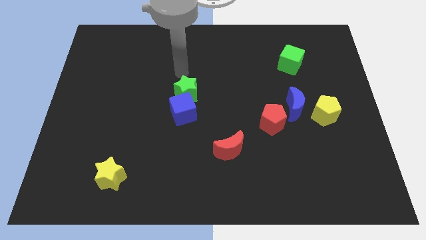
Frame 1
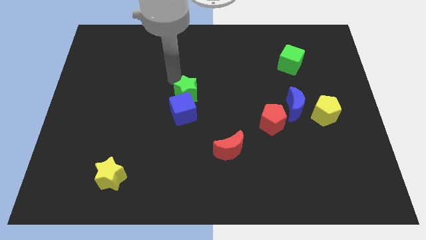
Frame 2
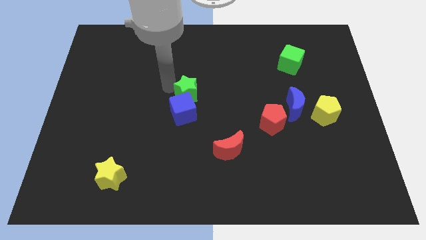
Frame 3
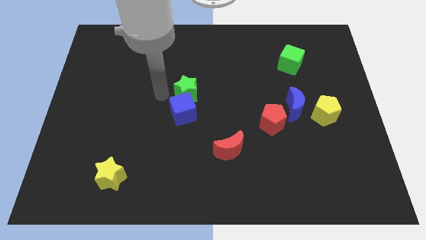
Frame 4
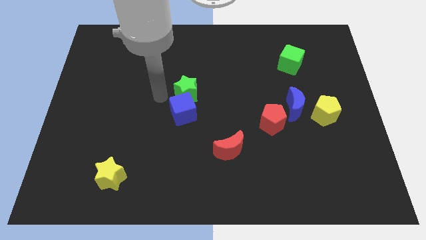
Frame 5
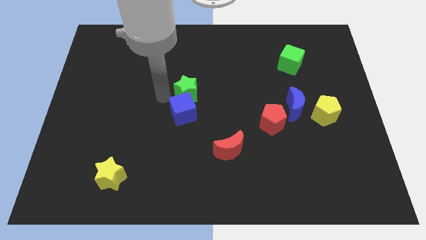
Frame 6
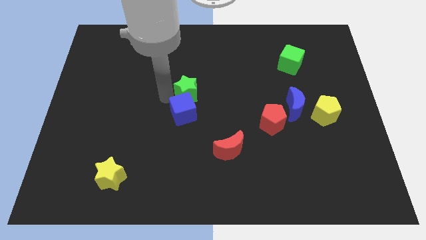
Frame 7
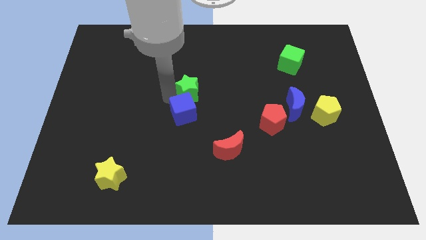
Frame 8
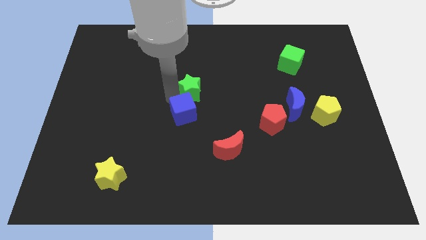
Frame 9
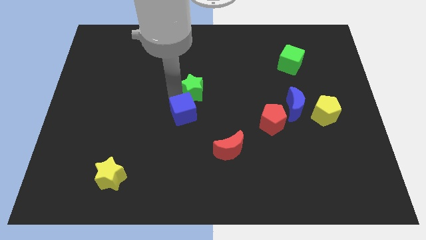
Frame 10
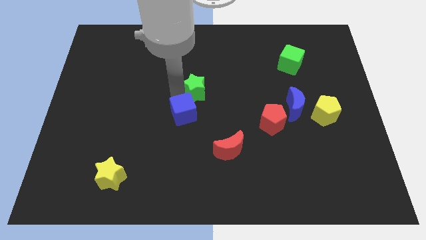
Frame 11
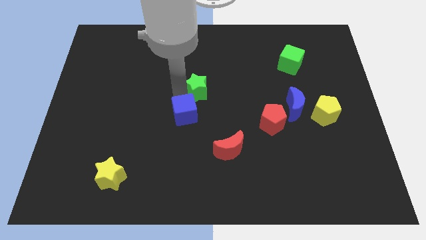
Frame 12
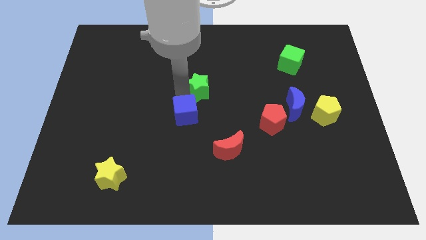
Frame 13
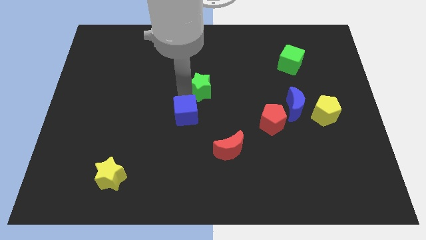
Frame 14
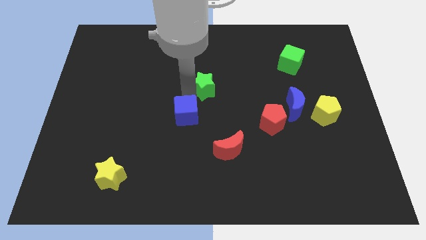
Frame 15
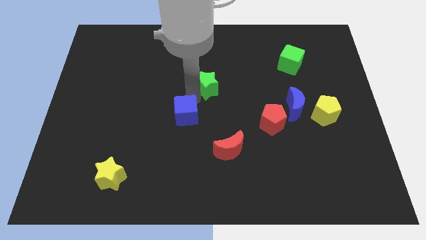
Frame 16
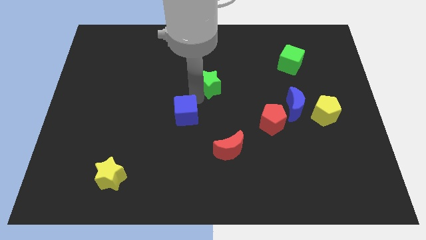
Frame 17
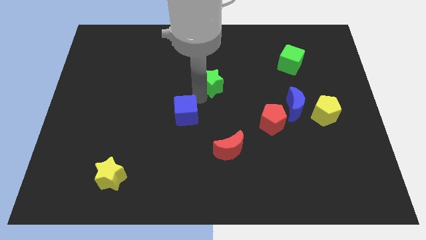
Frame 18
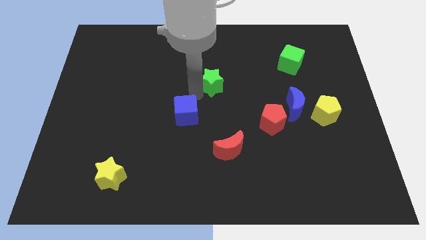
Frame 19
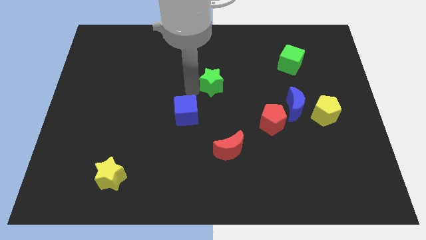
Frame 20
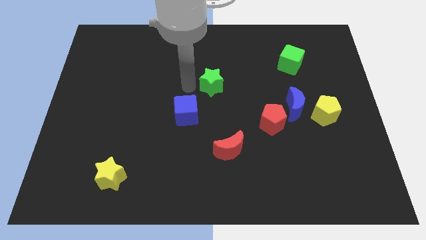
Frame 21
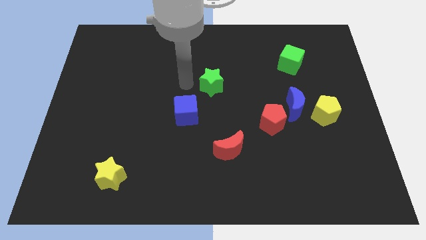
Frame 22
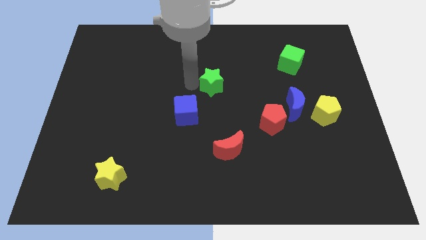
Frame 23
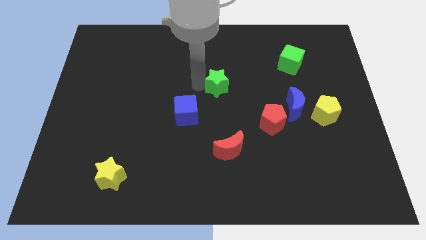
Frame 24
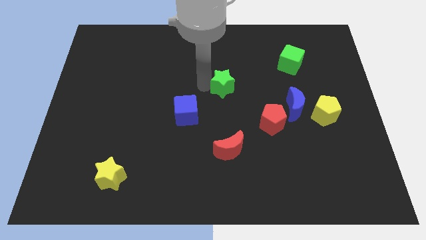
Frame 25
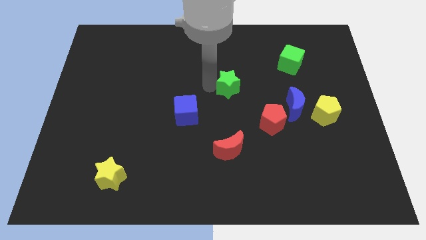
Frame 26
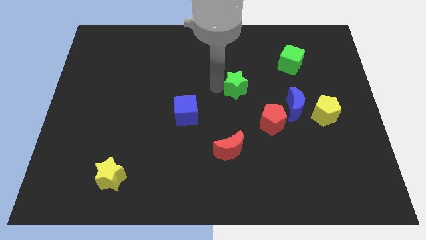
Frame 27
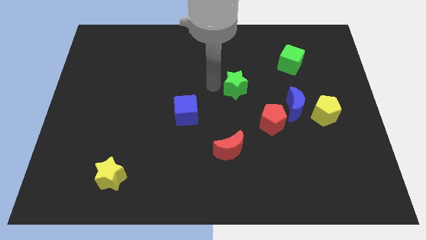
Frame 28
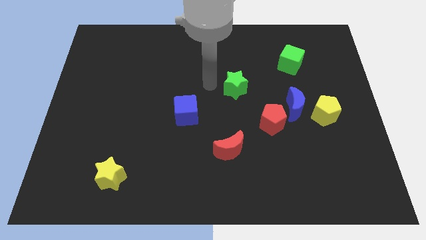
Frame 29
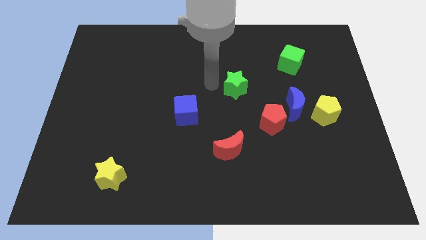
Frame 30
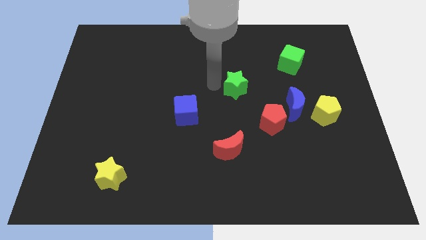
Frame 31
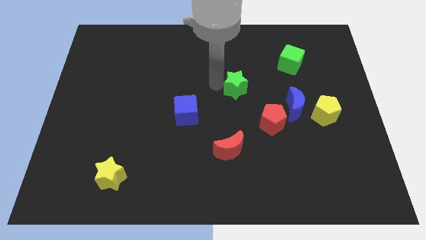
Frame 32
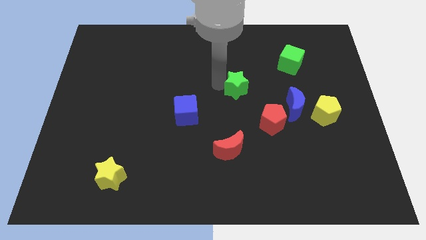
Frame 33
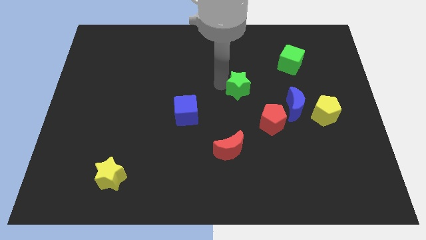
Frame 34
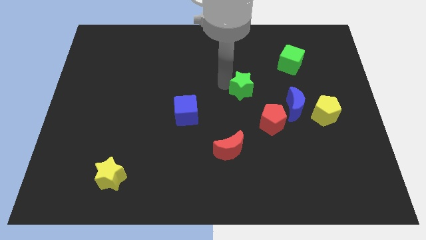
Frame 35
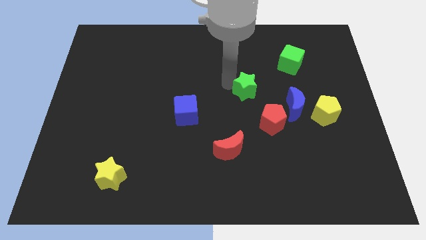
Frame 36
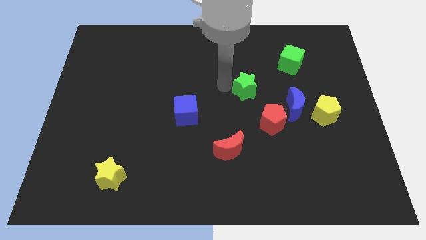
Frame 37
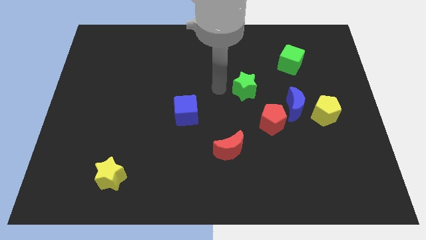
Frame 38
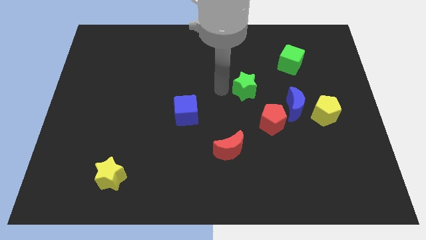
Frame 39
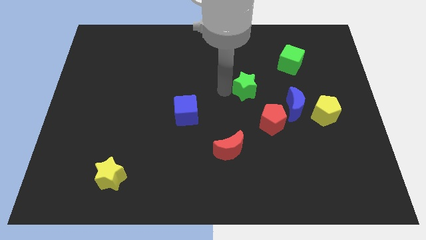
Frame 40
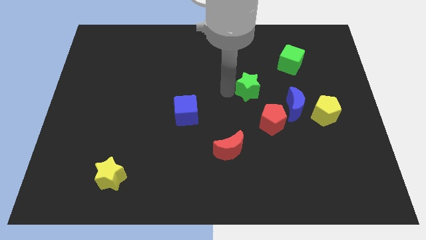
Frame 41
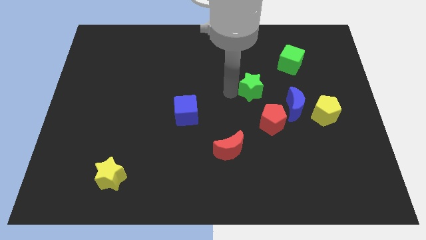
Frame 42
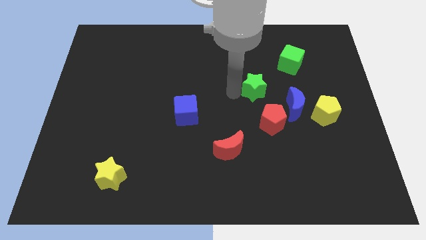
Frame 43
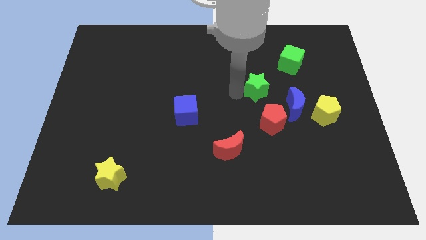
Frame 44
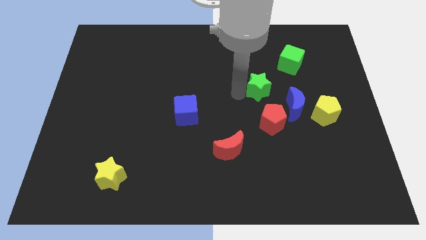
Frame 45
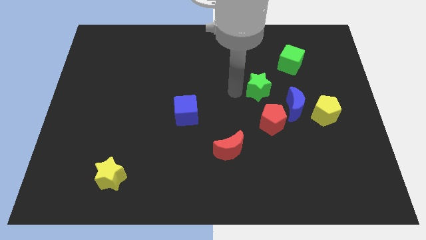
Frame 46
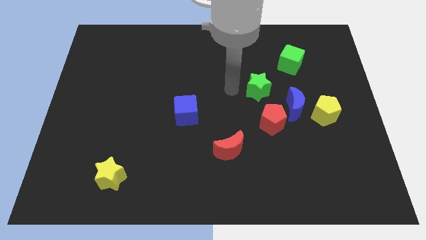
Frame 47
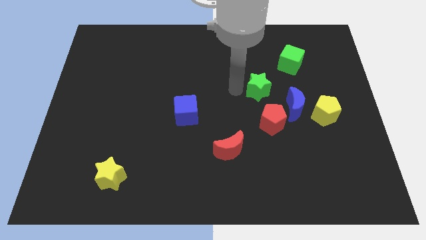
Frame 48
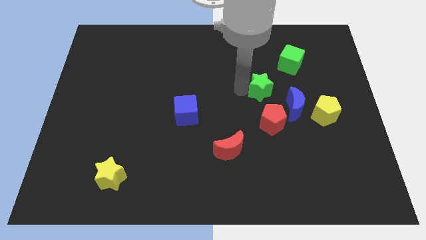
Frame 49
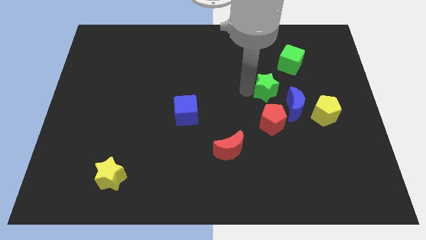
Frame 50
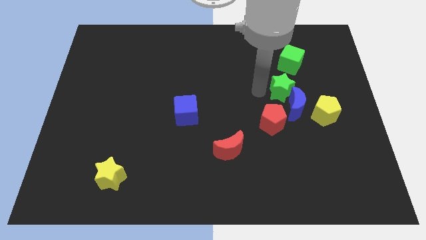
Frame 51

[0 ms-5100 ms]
move the green star to the right

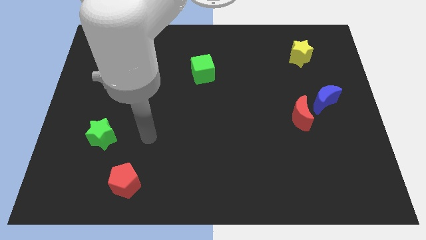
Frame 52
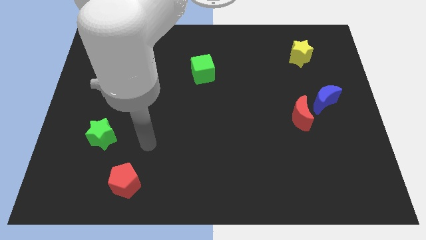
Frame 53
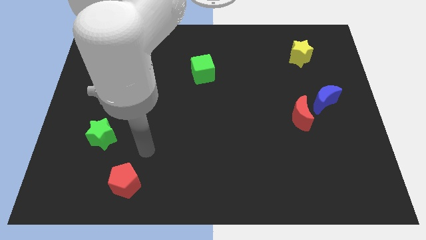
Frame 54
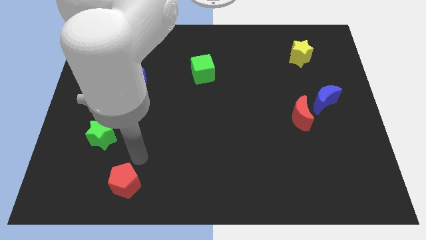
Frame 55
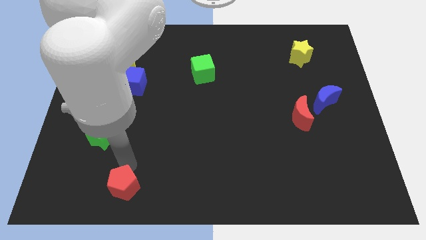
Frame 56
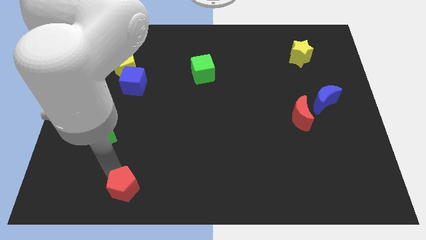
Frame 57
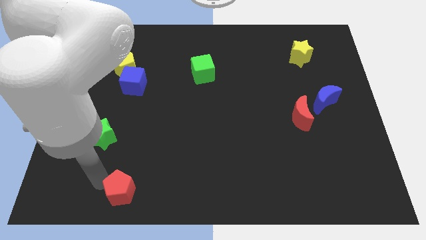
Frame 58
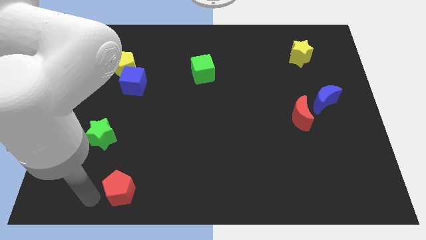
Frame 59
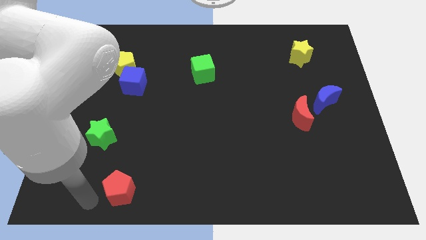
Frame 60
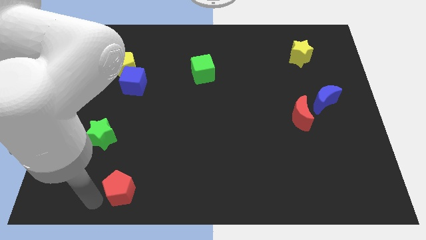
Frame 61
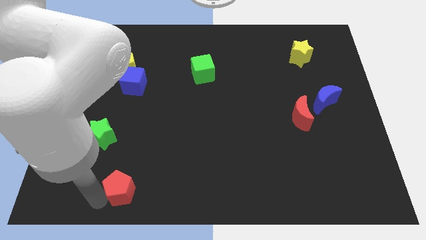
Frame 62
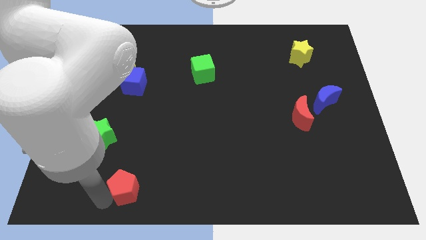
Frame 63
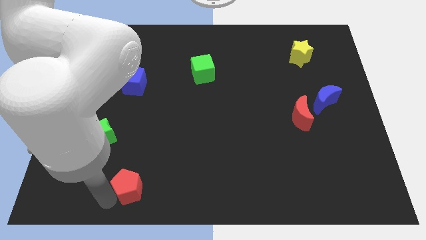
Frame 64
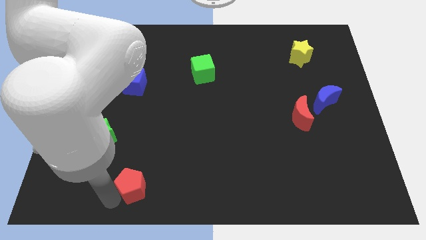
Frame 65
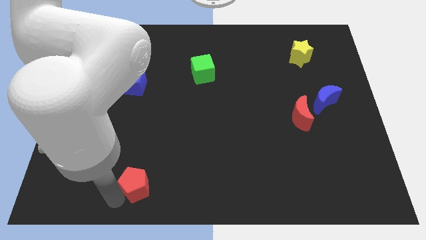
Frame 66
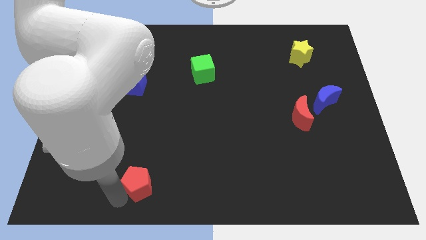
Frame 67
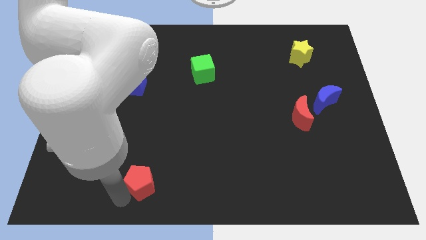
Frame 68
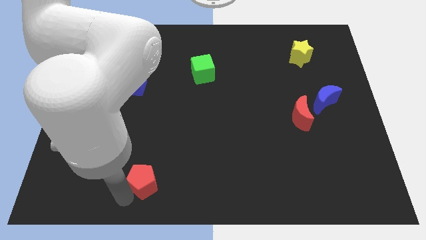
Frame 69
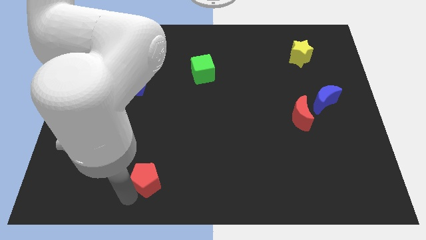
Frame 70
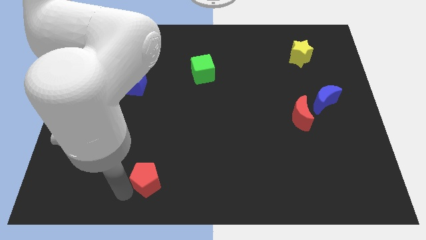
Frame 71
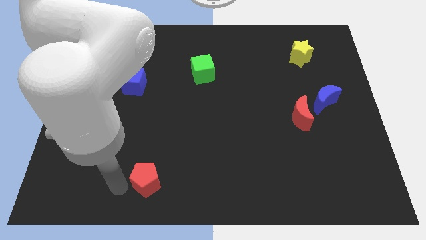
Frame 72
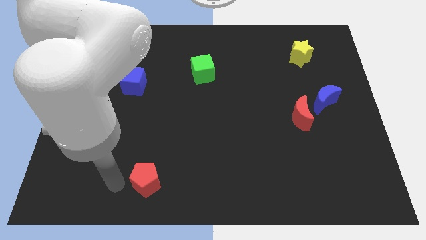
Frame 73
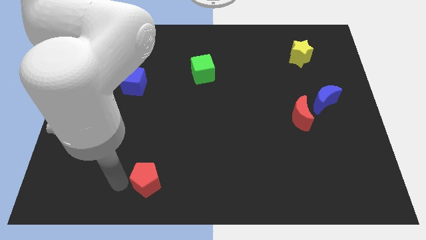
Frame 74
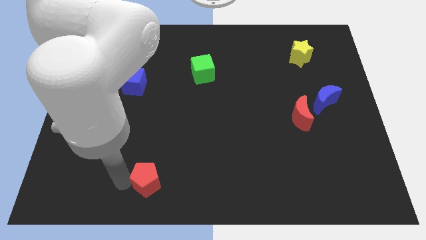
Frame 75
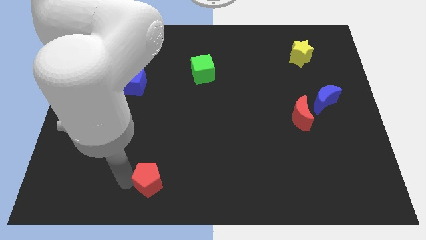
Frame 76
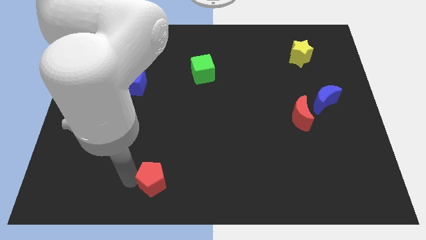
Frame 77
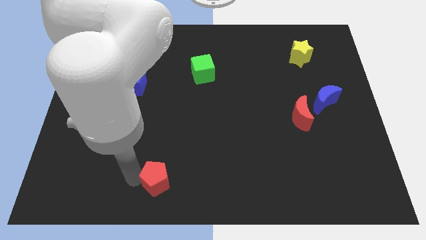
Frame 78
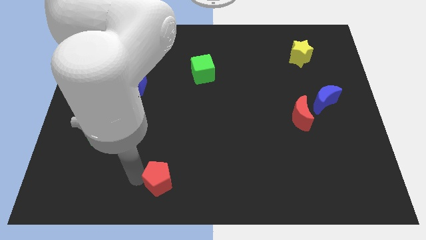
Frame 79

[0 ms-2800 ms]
move the red pentagon a little bit right

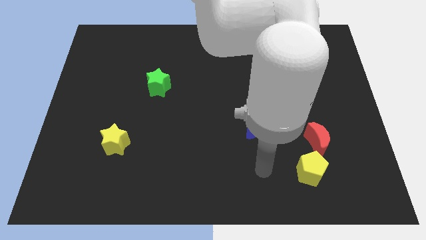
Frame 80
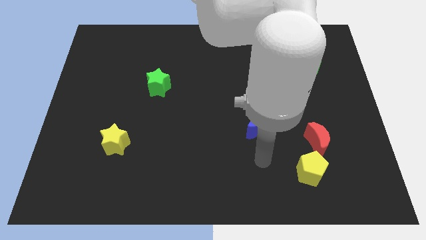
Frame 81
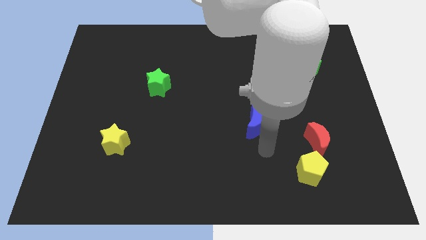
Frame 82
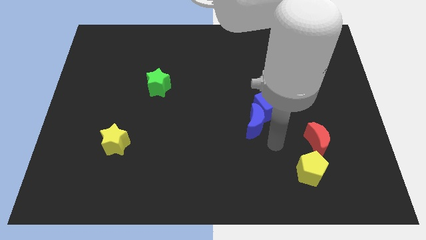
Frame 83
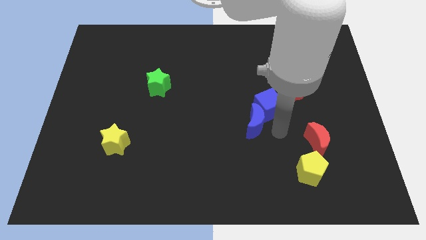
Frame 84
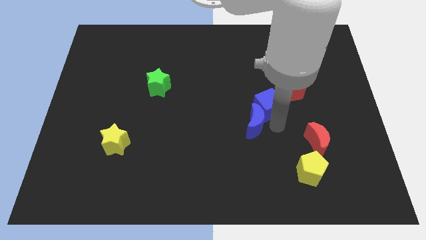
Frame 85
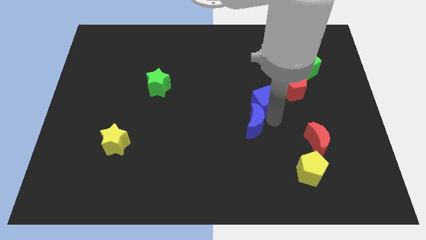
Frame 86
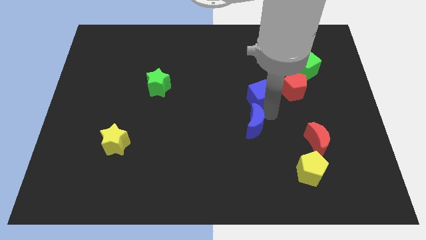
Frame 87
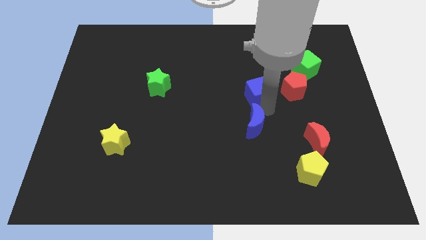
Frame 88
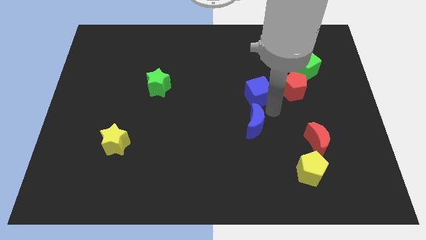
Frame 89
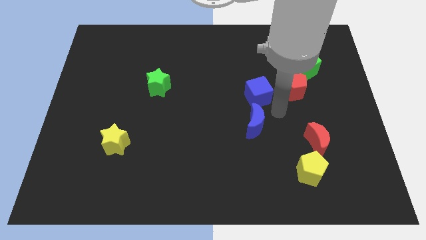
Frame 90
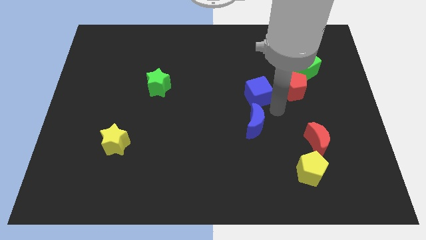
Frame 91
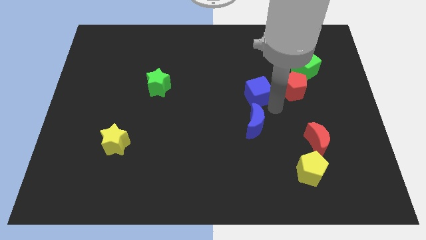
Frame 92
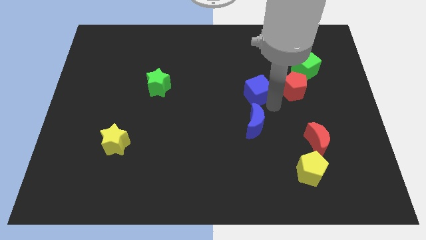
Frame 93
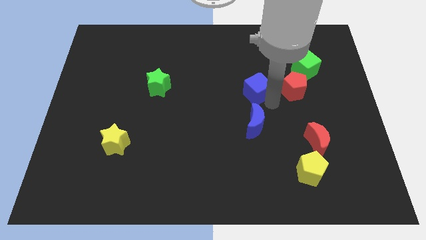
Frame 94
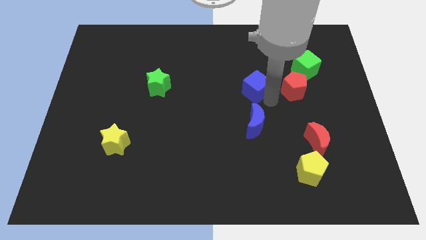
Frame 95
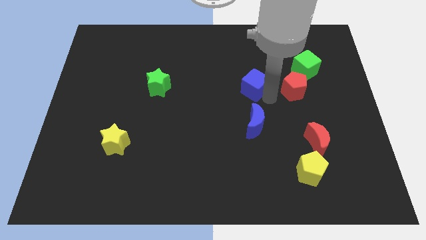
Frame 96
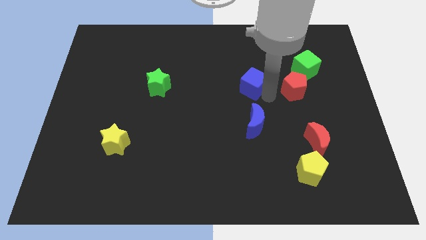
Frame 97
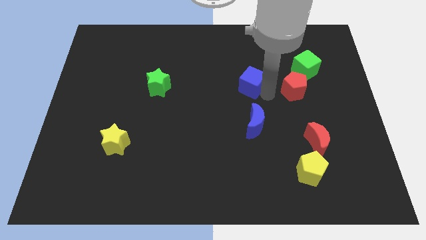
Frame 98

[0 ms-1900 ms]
push the blue cube upwards and to the left diagonally a little bit
